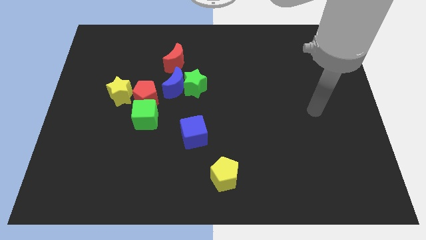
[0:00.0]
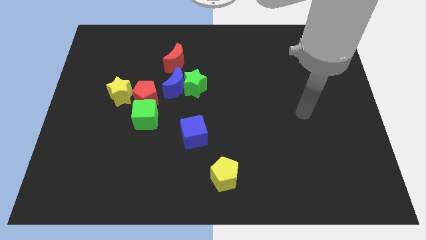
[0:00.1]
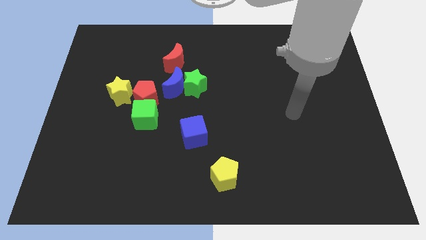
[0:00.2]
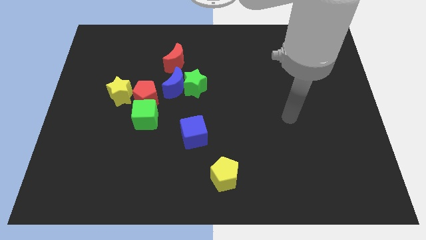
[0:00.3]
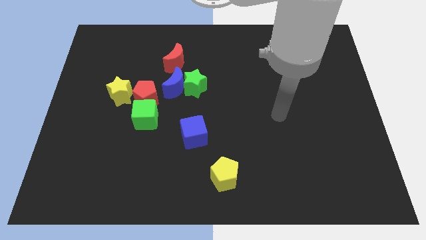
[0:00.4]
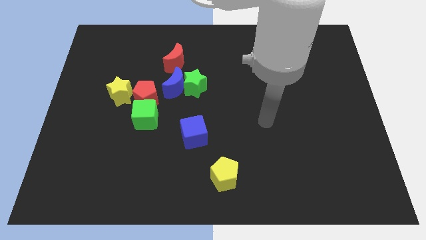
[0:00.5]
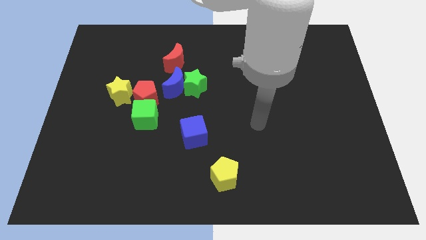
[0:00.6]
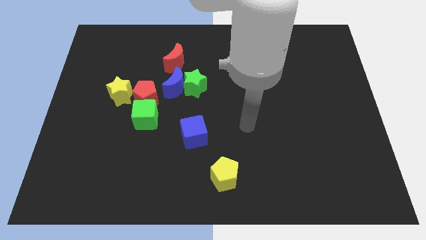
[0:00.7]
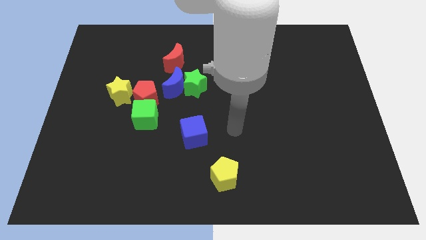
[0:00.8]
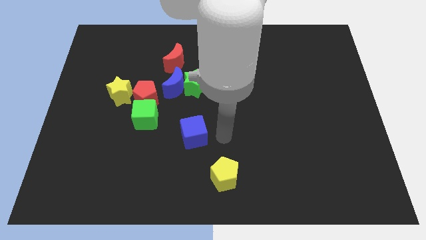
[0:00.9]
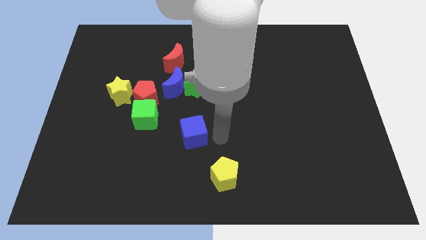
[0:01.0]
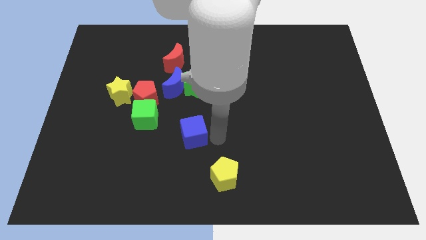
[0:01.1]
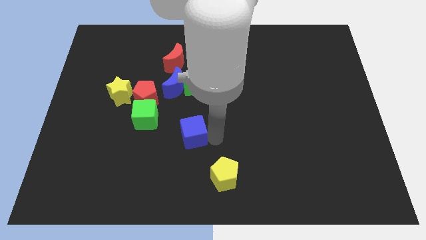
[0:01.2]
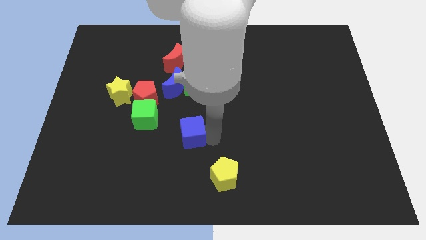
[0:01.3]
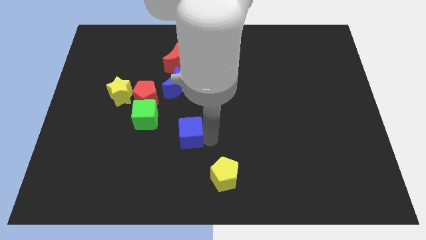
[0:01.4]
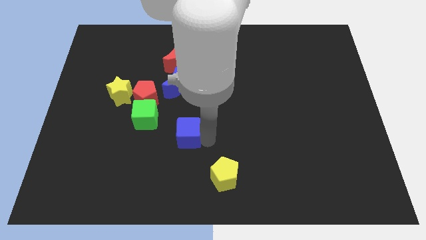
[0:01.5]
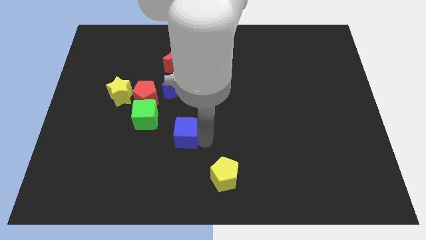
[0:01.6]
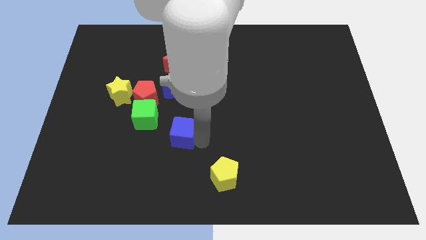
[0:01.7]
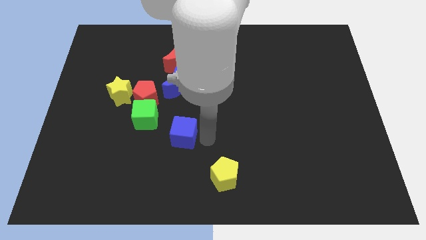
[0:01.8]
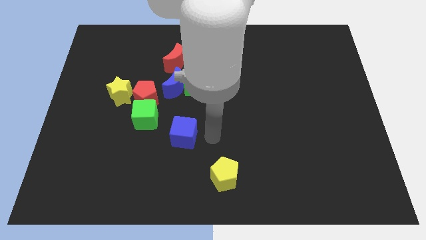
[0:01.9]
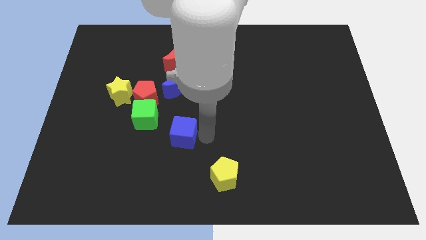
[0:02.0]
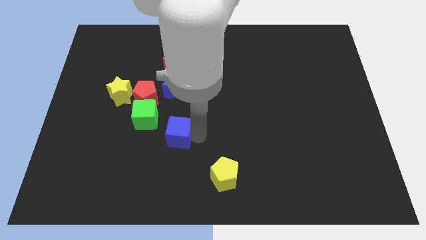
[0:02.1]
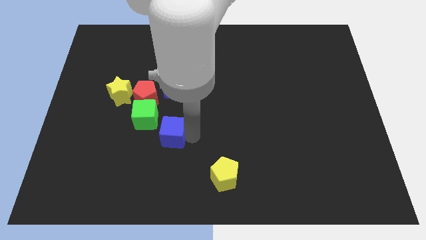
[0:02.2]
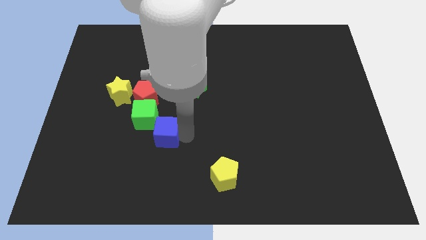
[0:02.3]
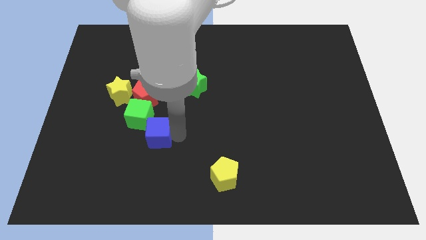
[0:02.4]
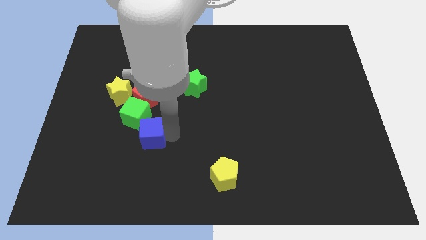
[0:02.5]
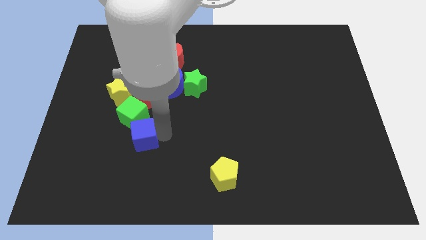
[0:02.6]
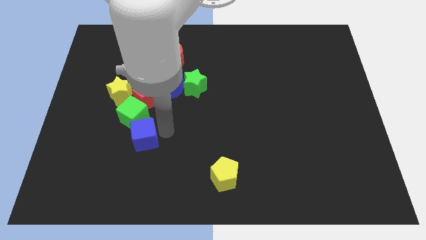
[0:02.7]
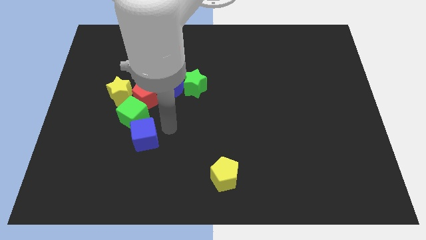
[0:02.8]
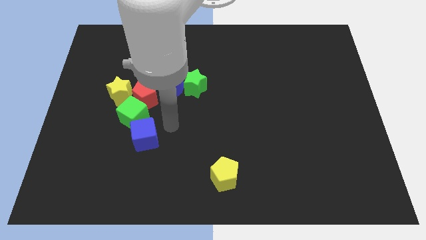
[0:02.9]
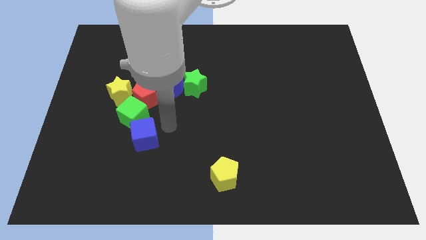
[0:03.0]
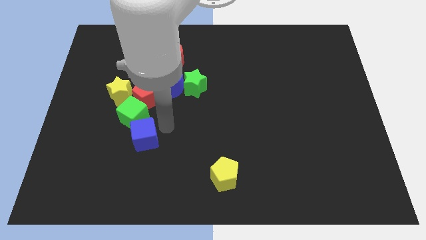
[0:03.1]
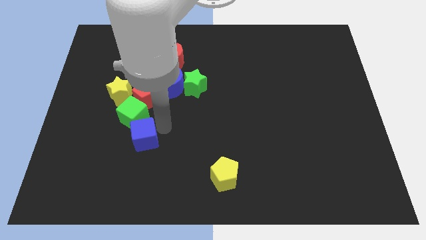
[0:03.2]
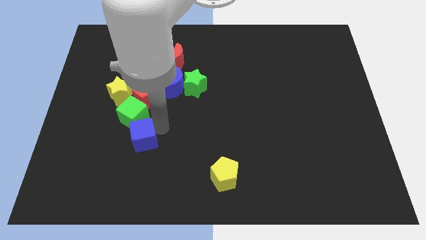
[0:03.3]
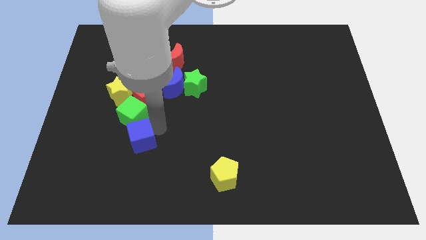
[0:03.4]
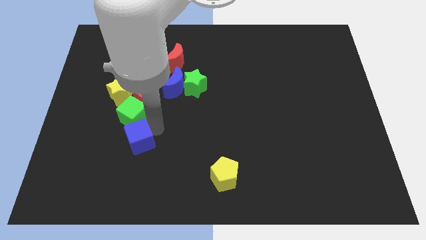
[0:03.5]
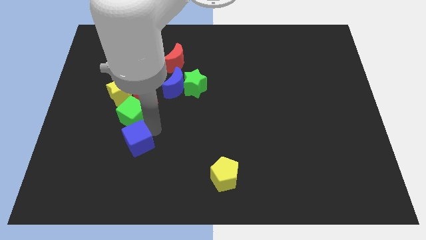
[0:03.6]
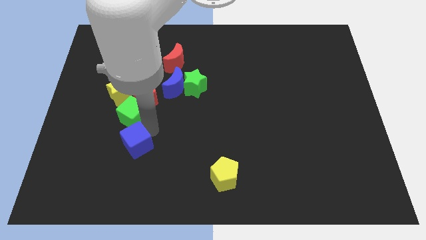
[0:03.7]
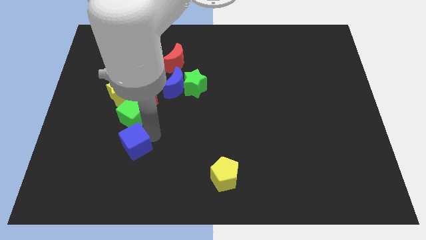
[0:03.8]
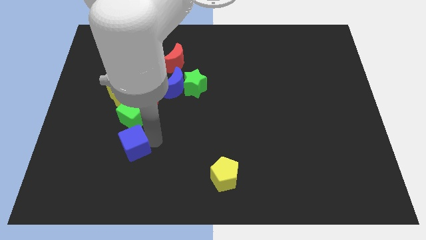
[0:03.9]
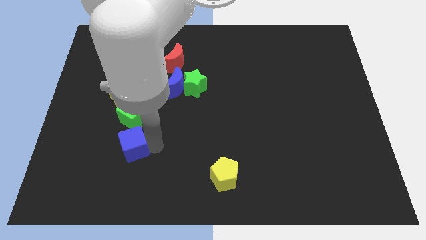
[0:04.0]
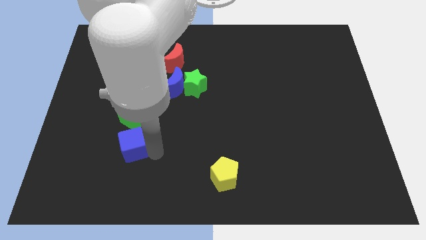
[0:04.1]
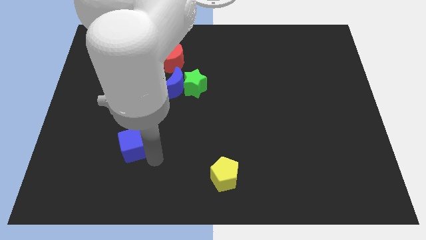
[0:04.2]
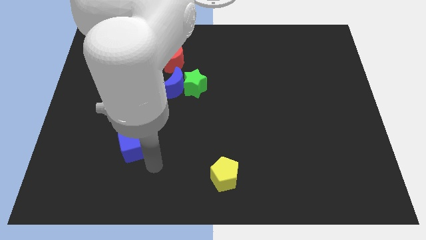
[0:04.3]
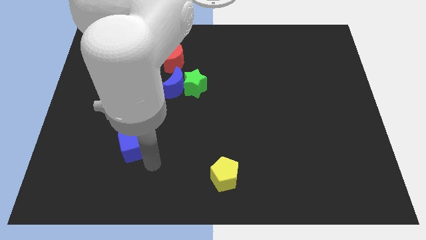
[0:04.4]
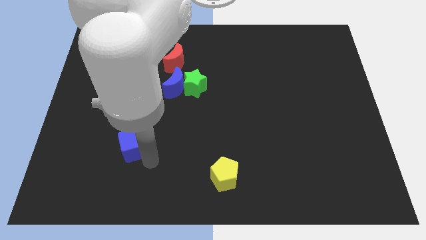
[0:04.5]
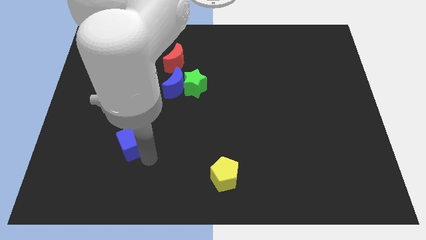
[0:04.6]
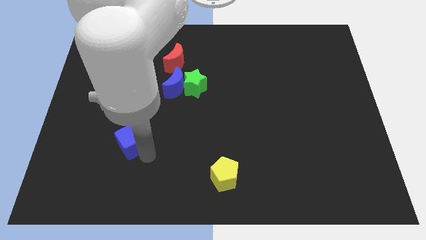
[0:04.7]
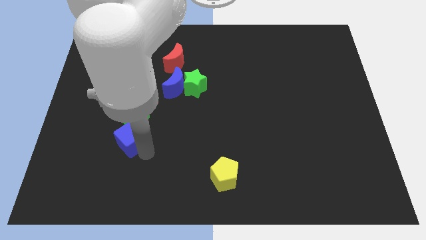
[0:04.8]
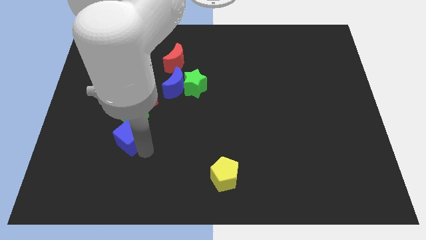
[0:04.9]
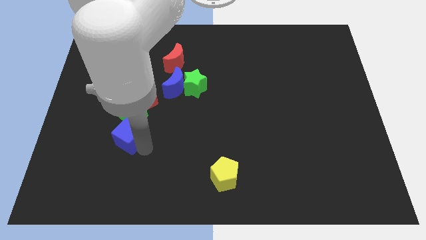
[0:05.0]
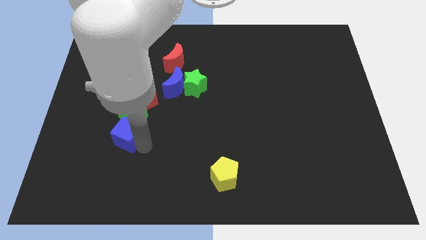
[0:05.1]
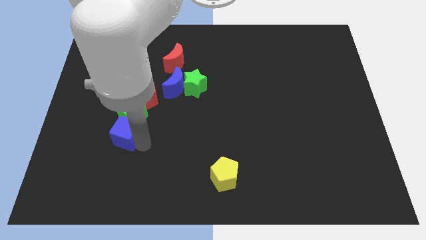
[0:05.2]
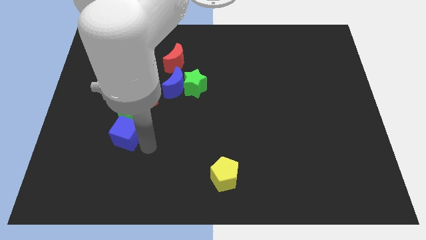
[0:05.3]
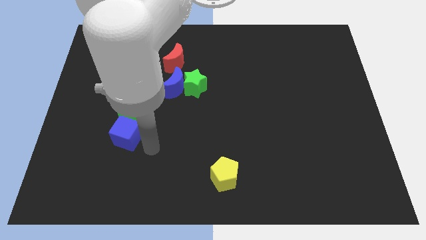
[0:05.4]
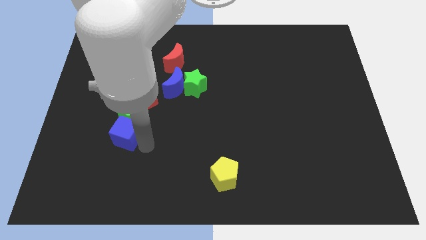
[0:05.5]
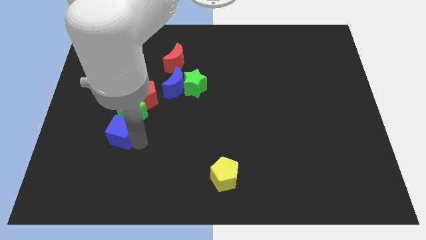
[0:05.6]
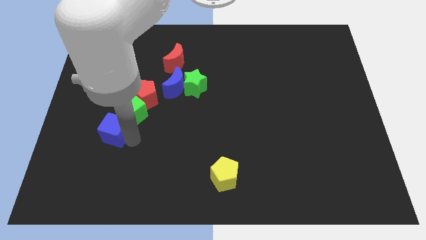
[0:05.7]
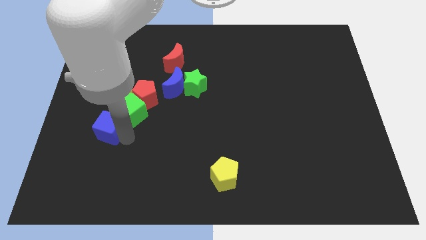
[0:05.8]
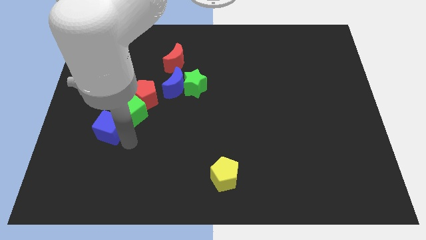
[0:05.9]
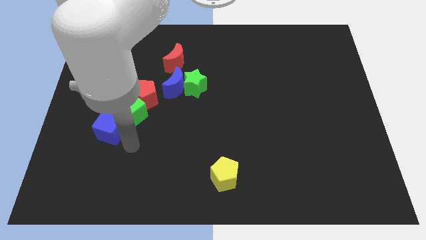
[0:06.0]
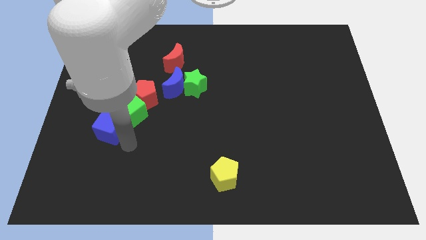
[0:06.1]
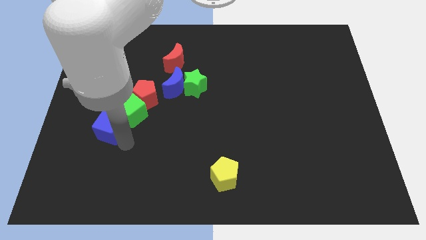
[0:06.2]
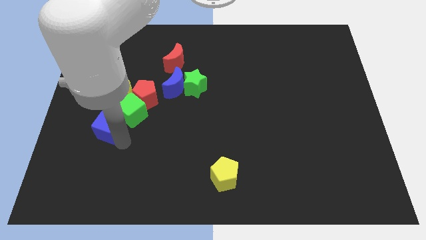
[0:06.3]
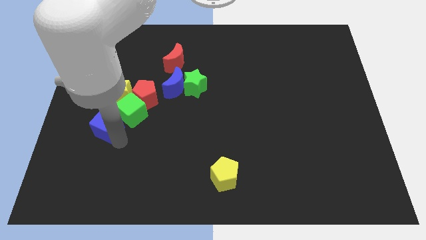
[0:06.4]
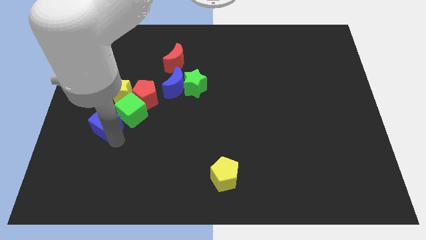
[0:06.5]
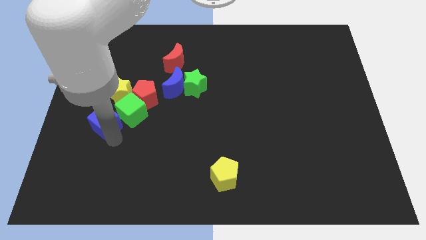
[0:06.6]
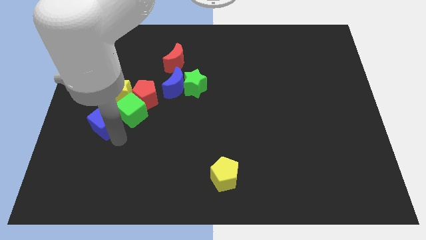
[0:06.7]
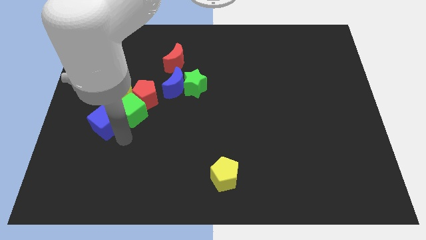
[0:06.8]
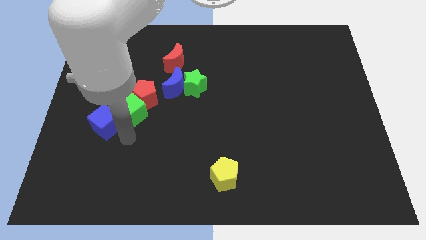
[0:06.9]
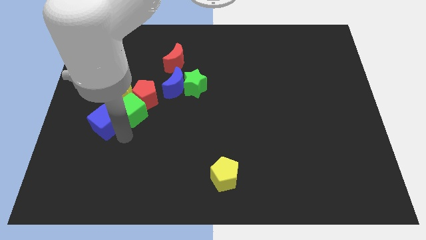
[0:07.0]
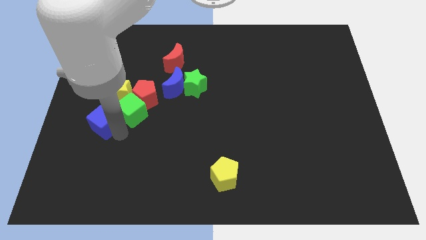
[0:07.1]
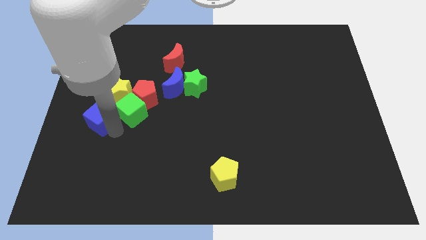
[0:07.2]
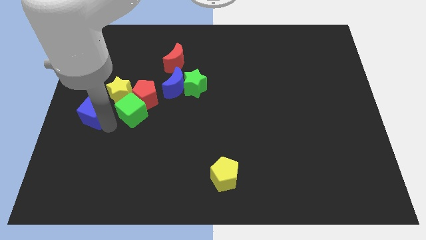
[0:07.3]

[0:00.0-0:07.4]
slide the blue cube to the left side
